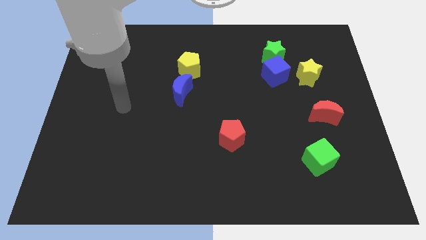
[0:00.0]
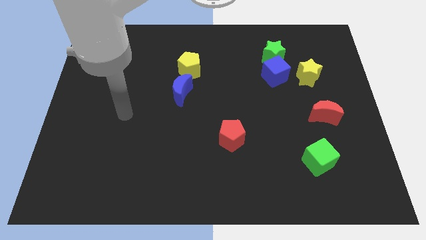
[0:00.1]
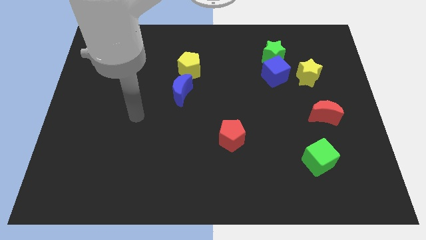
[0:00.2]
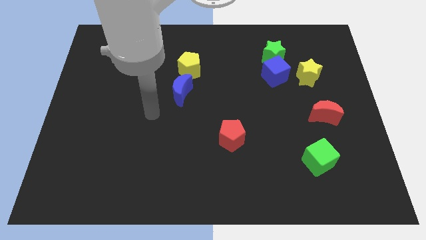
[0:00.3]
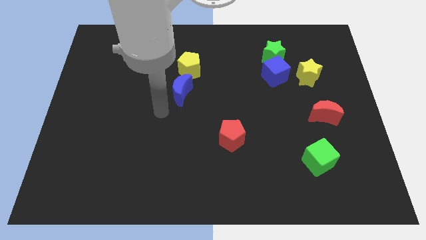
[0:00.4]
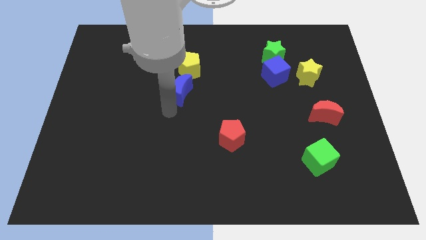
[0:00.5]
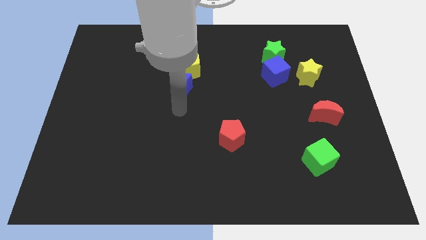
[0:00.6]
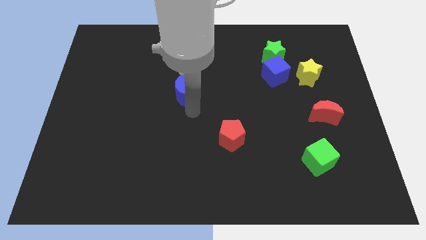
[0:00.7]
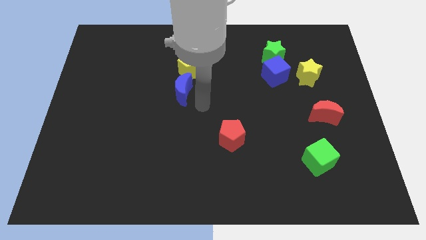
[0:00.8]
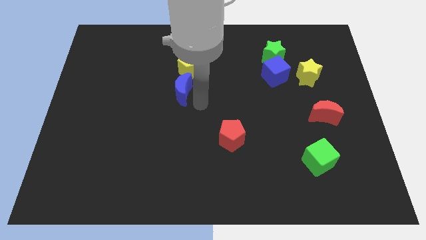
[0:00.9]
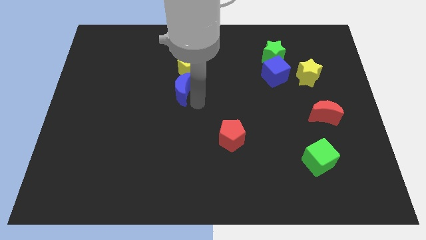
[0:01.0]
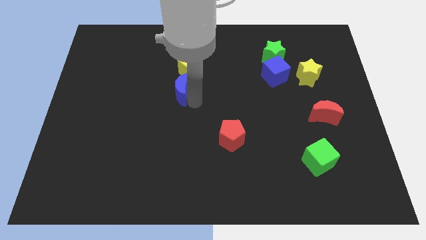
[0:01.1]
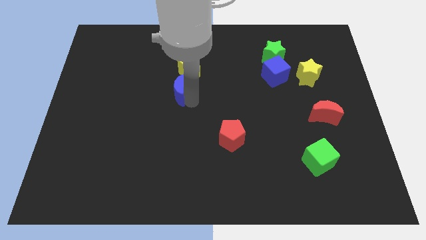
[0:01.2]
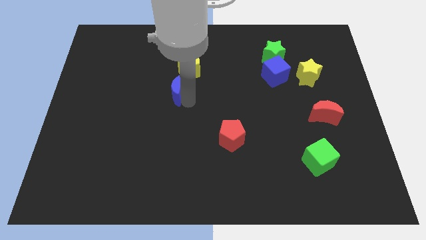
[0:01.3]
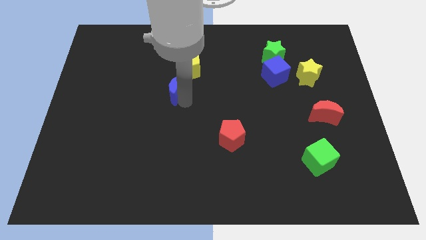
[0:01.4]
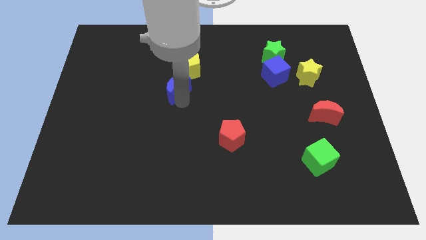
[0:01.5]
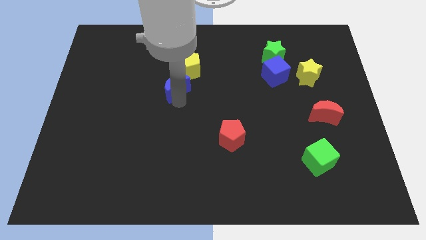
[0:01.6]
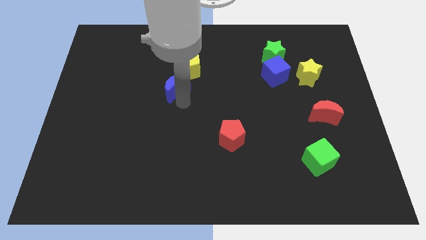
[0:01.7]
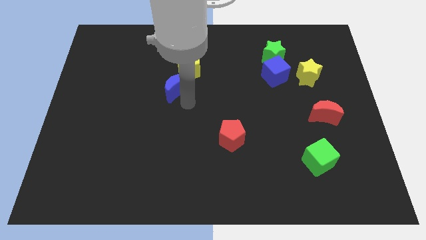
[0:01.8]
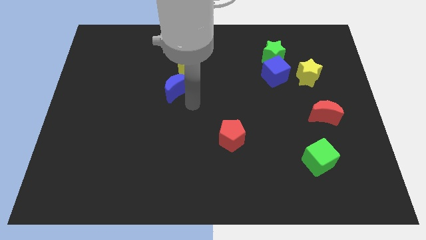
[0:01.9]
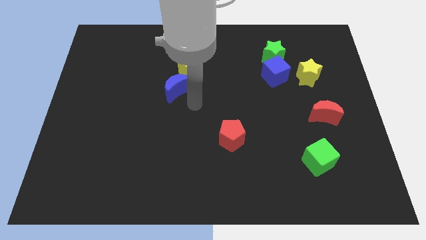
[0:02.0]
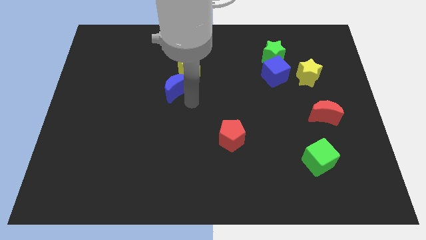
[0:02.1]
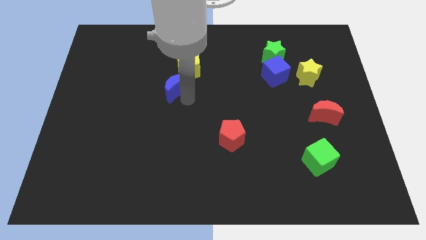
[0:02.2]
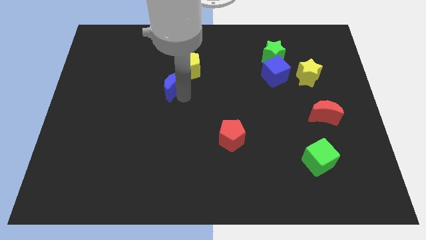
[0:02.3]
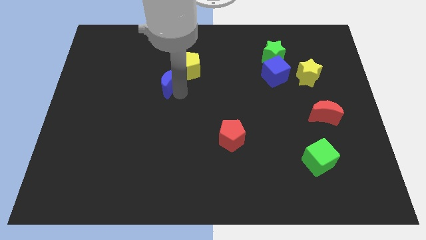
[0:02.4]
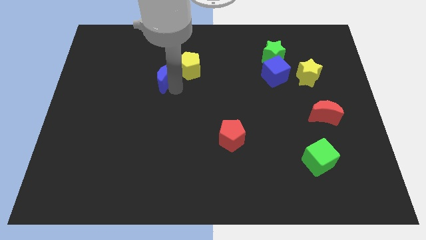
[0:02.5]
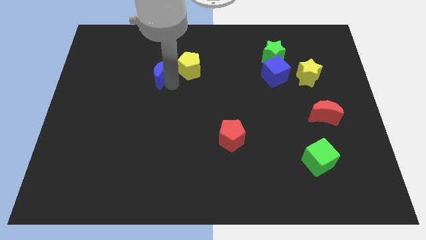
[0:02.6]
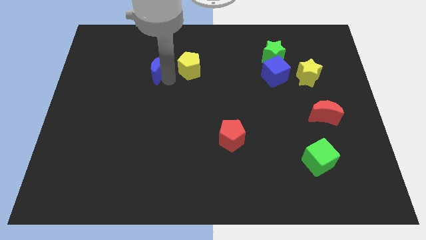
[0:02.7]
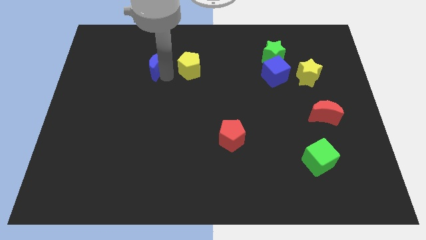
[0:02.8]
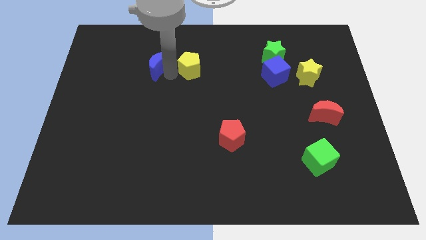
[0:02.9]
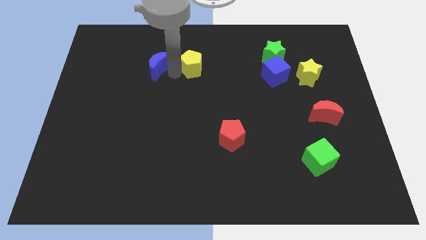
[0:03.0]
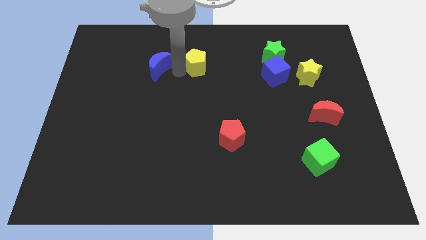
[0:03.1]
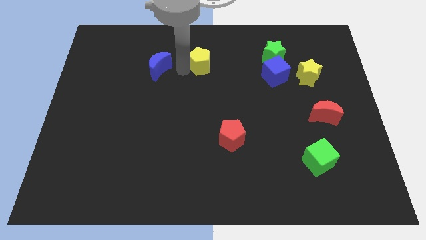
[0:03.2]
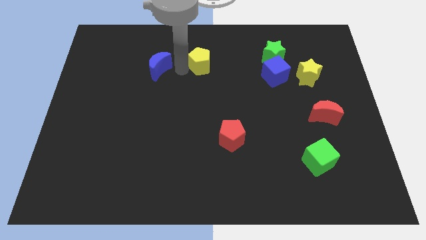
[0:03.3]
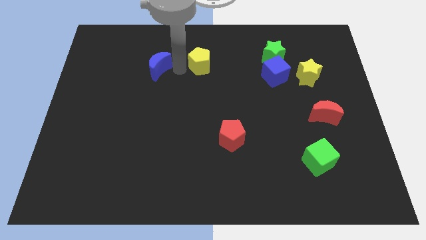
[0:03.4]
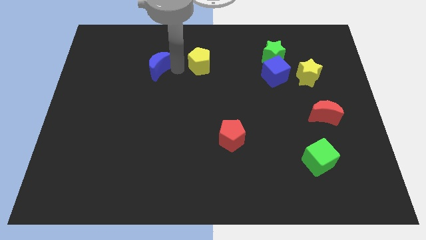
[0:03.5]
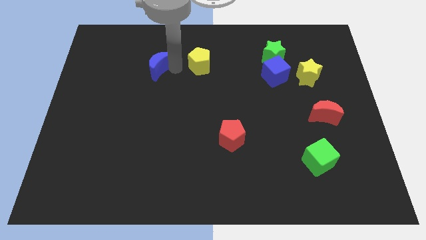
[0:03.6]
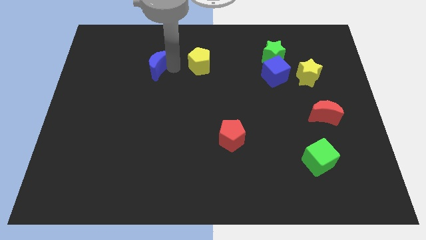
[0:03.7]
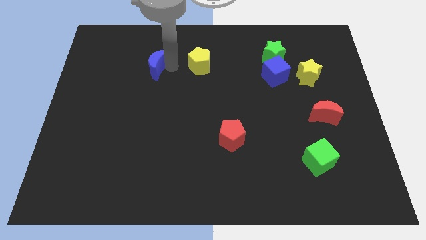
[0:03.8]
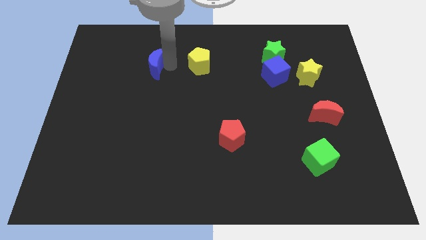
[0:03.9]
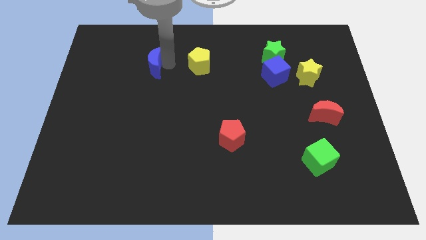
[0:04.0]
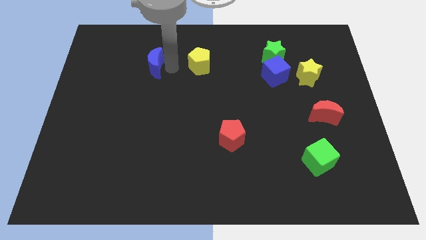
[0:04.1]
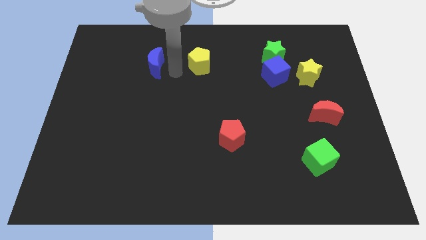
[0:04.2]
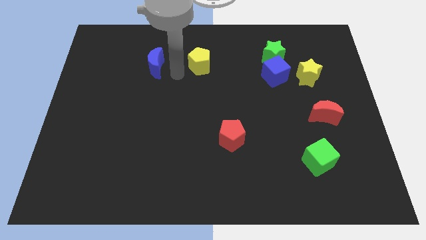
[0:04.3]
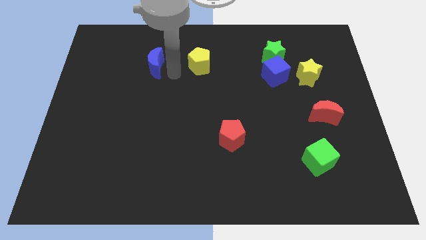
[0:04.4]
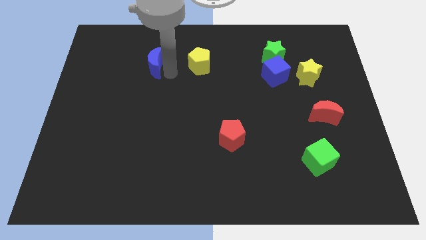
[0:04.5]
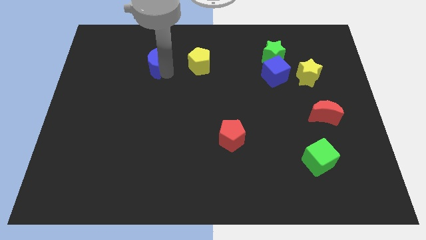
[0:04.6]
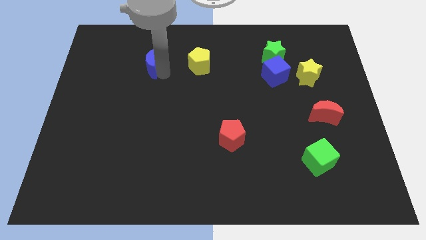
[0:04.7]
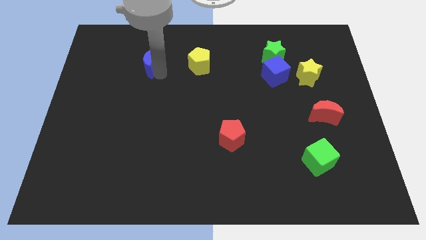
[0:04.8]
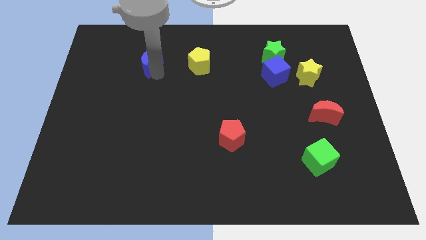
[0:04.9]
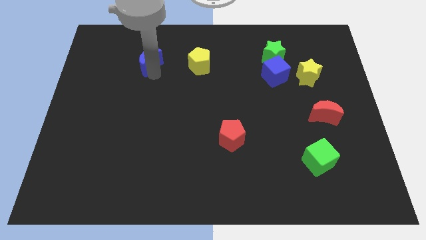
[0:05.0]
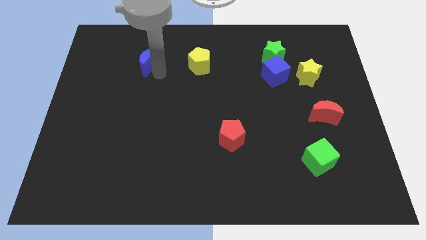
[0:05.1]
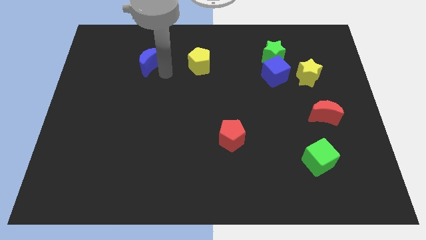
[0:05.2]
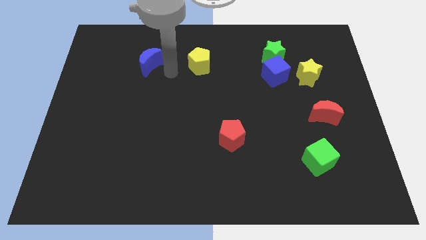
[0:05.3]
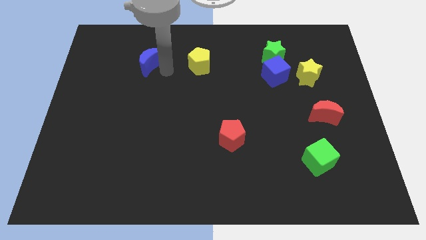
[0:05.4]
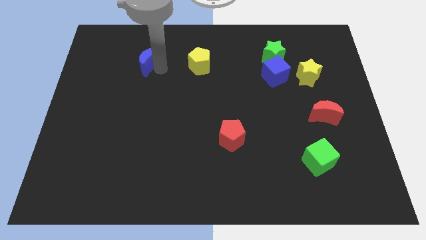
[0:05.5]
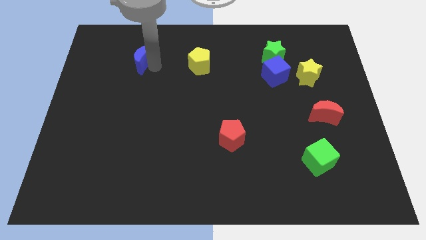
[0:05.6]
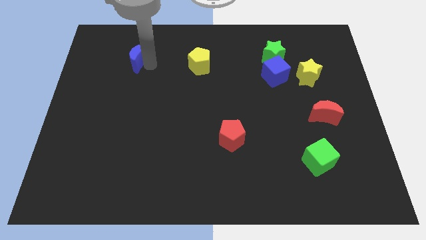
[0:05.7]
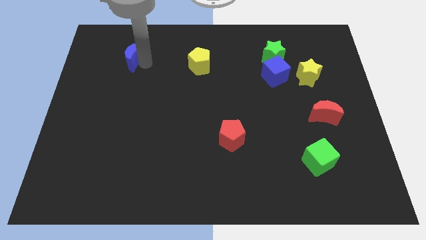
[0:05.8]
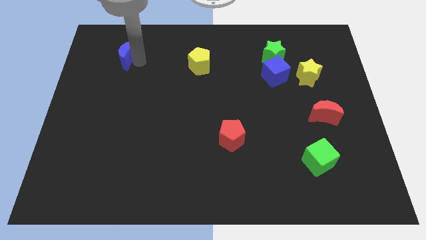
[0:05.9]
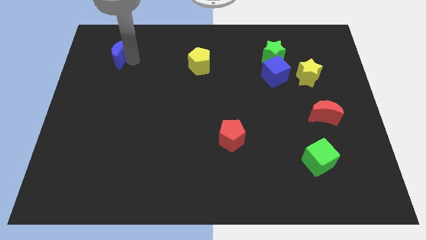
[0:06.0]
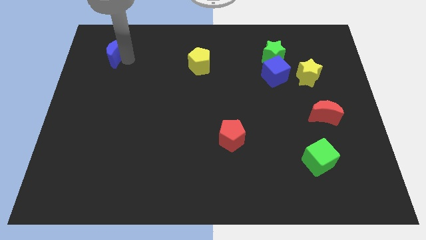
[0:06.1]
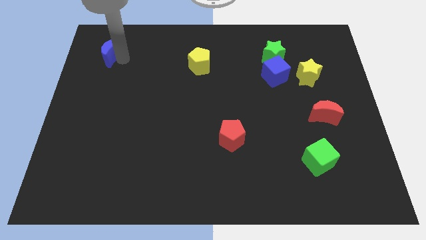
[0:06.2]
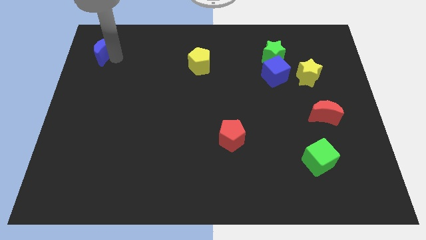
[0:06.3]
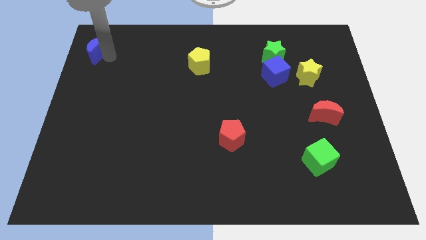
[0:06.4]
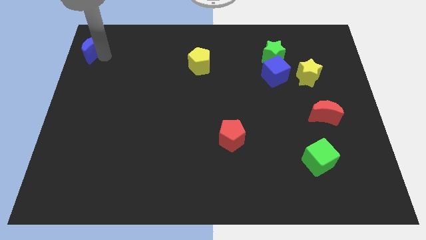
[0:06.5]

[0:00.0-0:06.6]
move the blue moon to the top left of the board

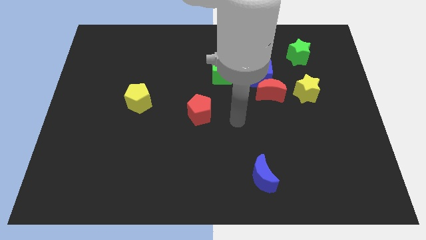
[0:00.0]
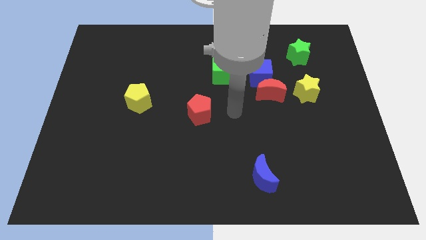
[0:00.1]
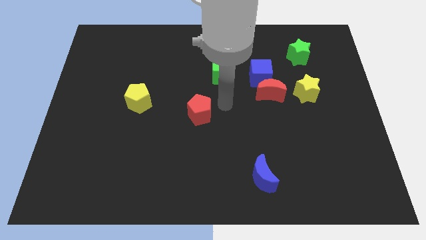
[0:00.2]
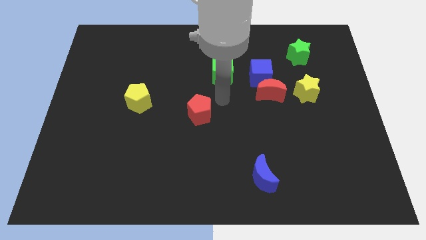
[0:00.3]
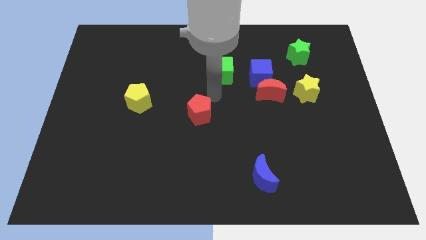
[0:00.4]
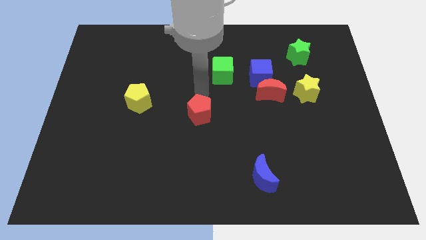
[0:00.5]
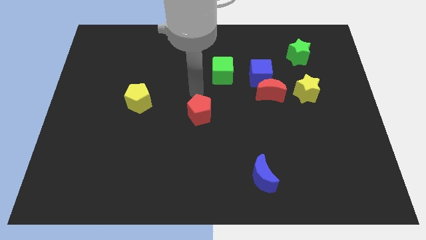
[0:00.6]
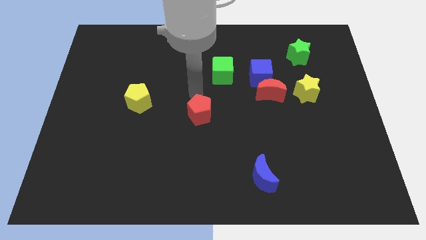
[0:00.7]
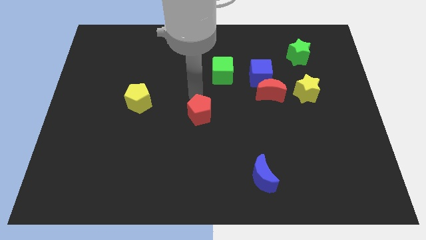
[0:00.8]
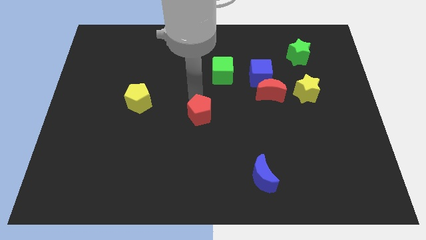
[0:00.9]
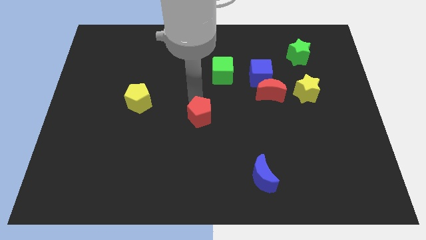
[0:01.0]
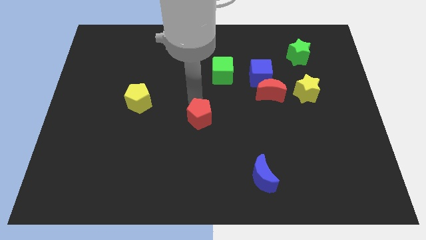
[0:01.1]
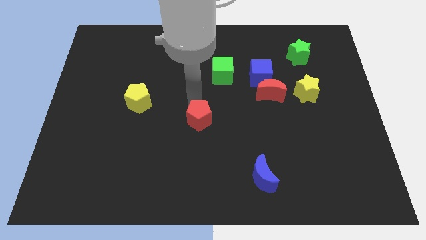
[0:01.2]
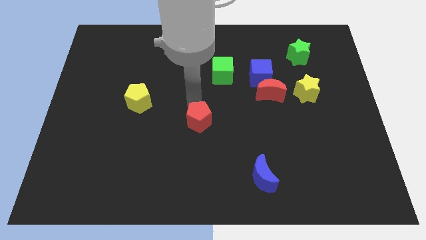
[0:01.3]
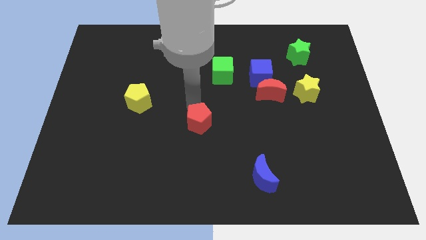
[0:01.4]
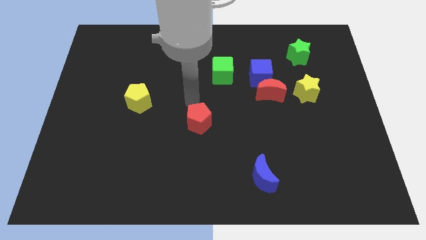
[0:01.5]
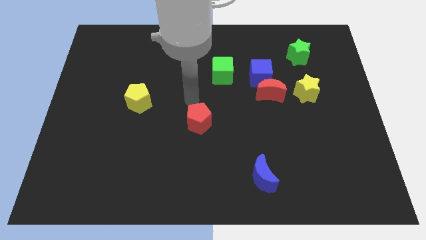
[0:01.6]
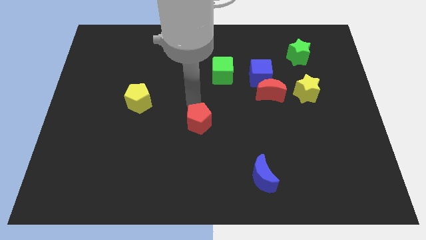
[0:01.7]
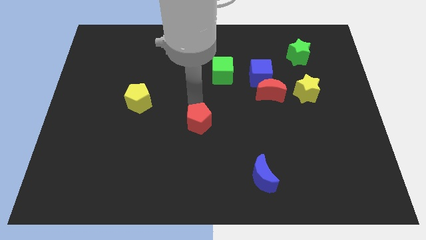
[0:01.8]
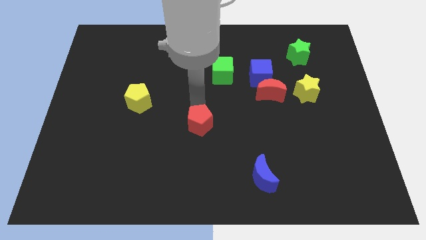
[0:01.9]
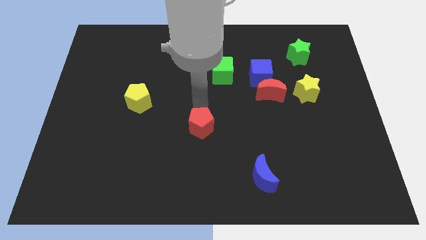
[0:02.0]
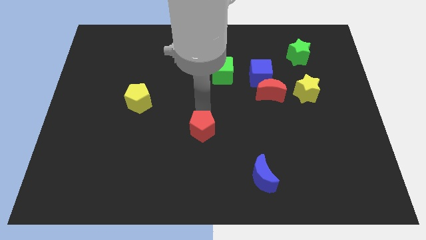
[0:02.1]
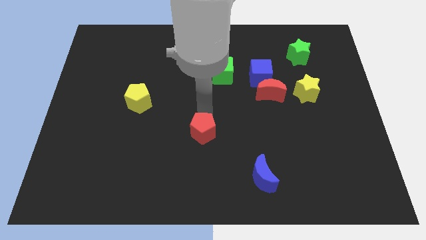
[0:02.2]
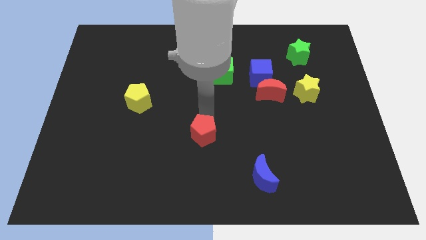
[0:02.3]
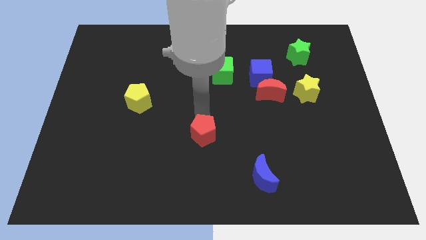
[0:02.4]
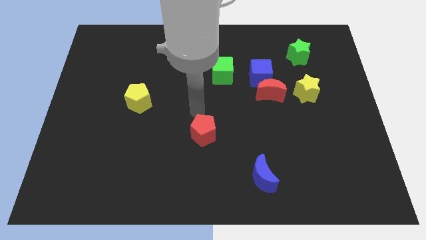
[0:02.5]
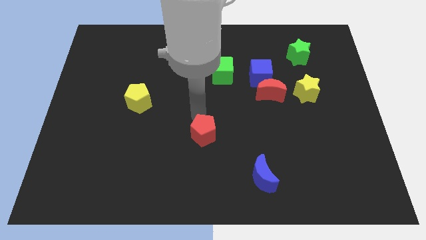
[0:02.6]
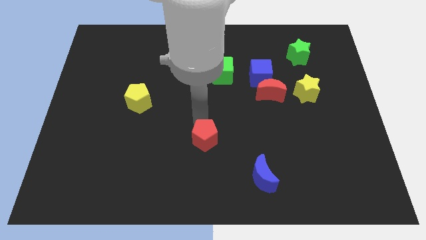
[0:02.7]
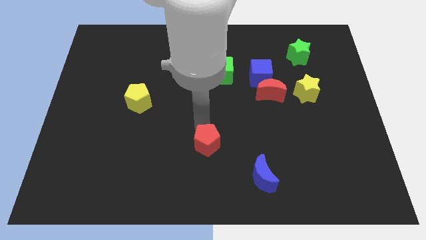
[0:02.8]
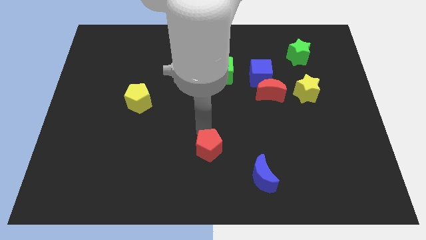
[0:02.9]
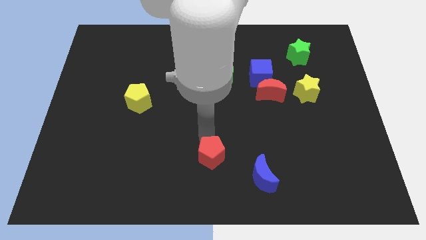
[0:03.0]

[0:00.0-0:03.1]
move the red pentagon to the bottom side
